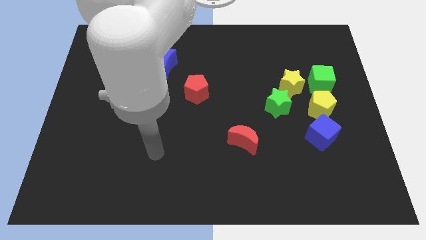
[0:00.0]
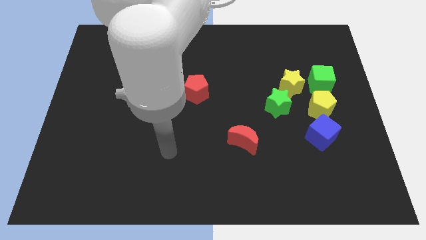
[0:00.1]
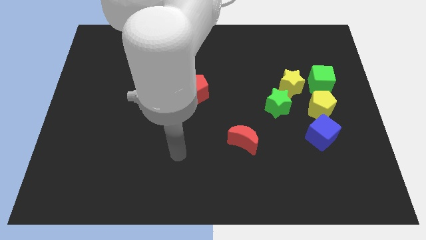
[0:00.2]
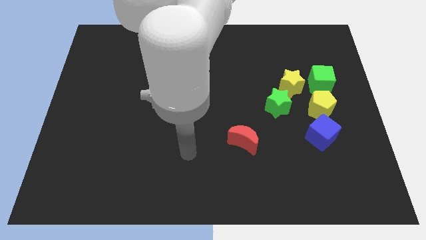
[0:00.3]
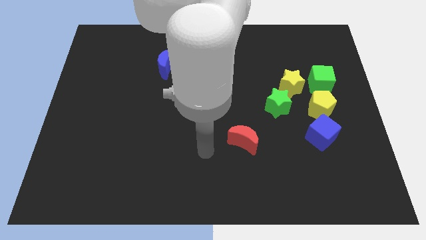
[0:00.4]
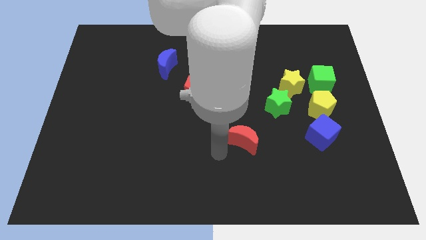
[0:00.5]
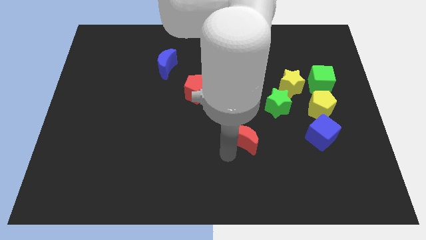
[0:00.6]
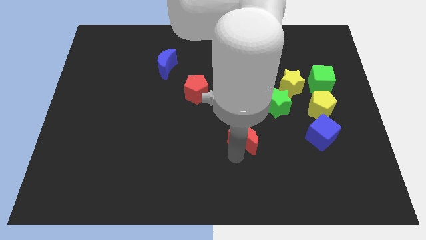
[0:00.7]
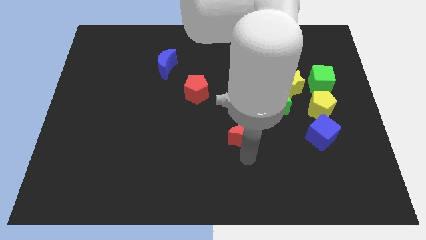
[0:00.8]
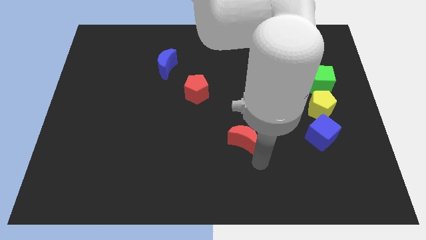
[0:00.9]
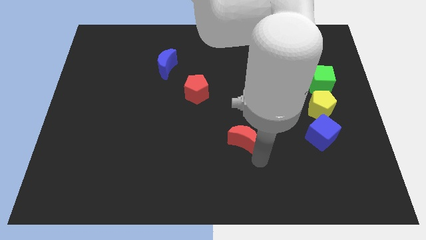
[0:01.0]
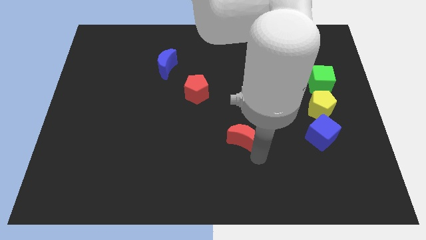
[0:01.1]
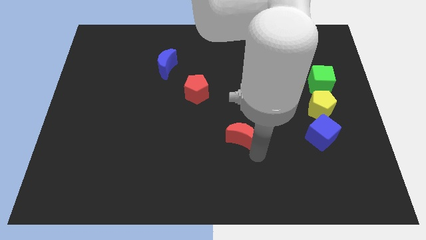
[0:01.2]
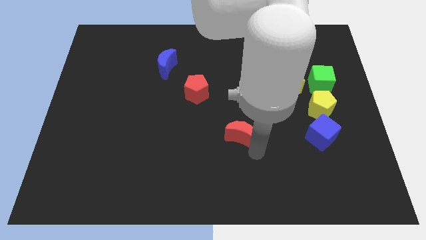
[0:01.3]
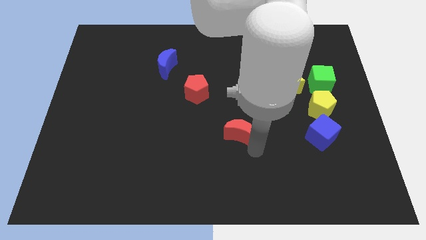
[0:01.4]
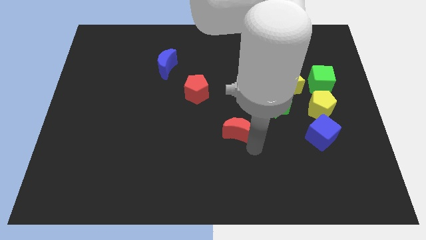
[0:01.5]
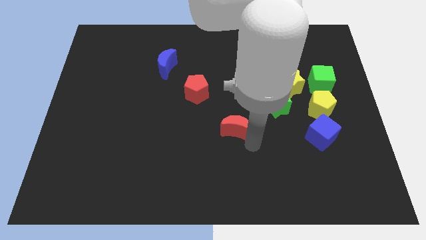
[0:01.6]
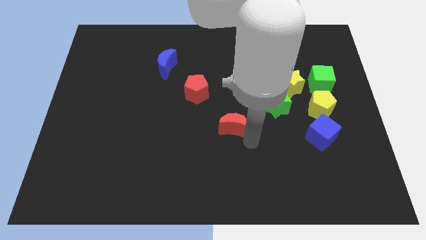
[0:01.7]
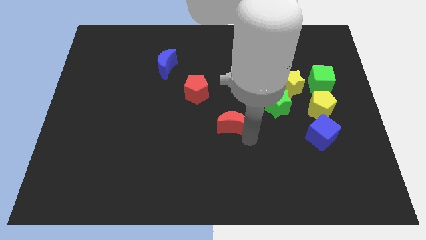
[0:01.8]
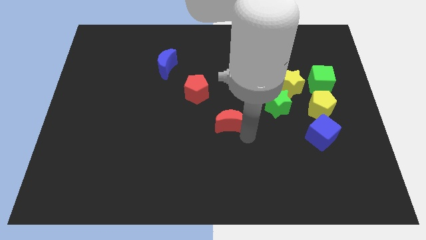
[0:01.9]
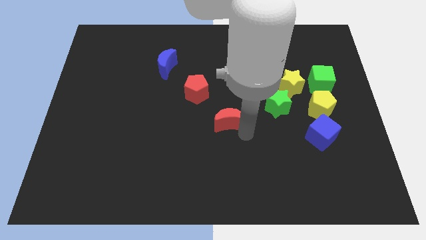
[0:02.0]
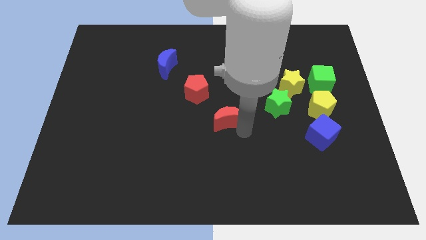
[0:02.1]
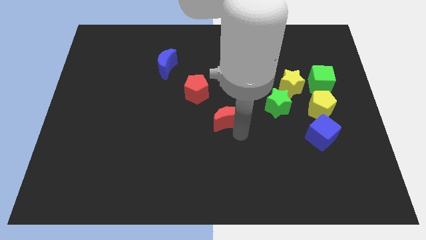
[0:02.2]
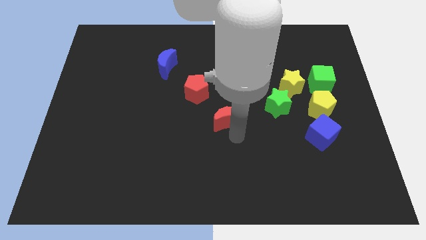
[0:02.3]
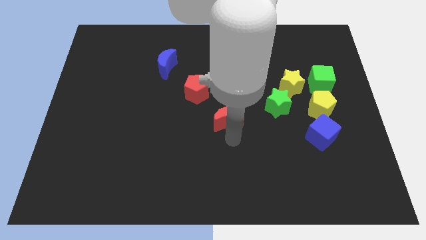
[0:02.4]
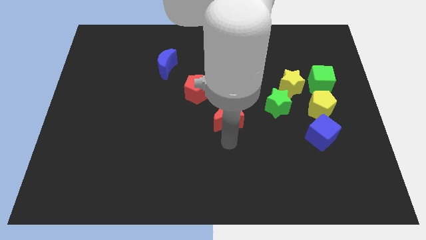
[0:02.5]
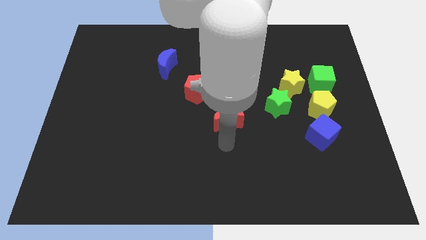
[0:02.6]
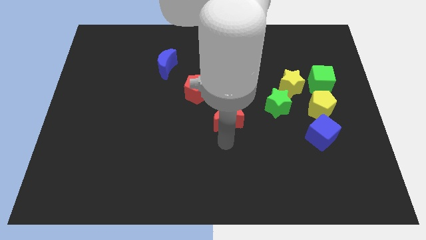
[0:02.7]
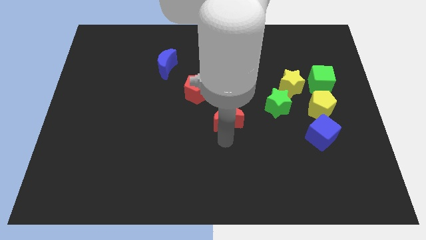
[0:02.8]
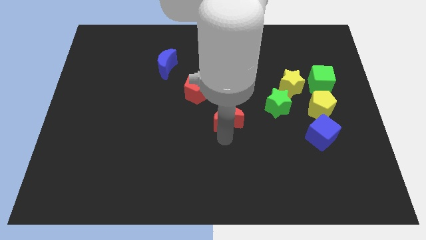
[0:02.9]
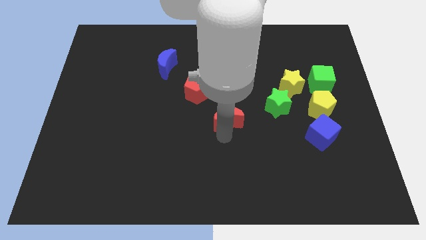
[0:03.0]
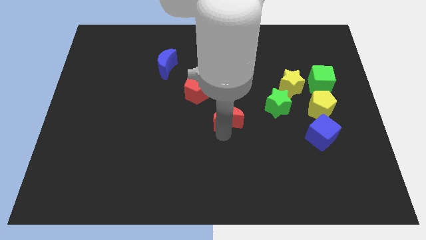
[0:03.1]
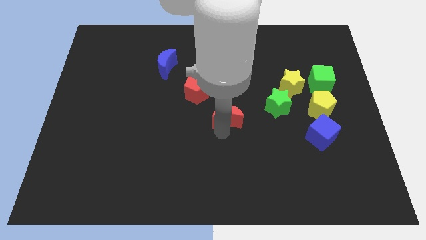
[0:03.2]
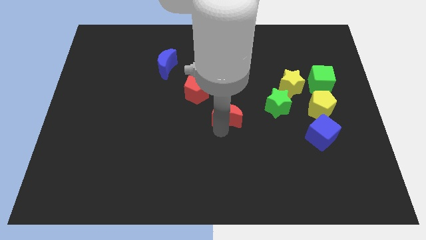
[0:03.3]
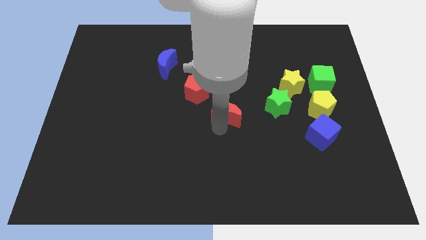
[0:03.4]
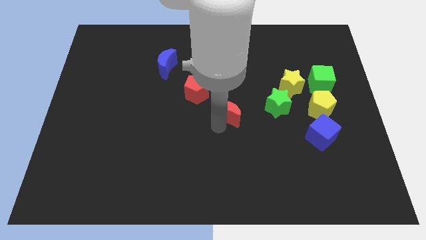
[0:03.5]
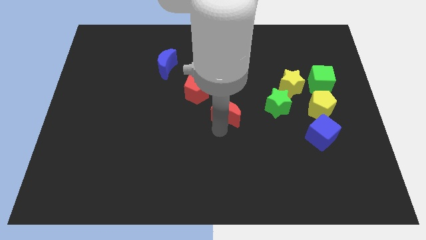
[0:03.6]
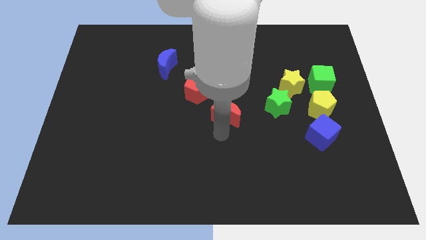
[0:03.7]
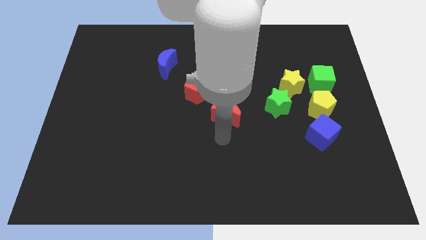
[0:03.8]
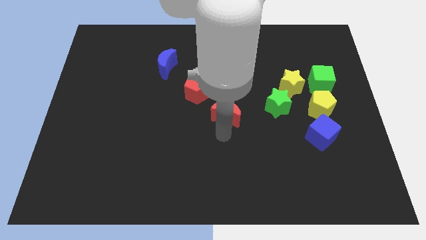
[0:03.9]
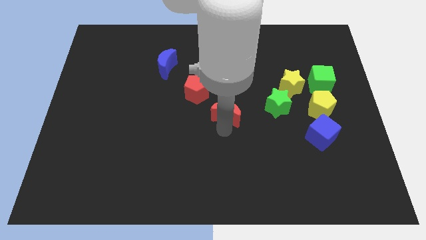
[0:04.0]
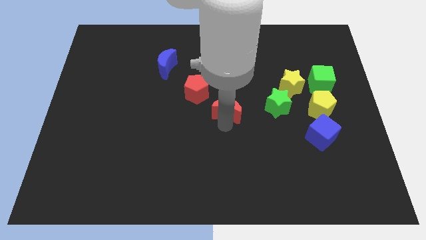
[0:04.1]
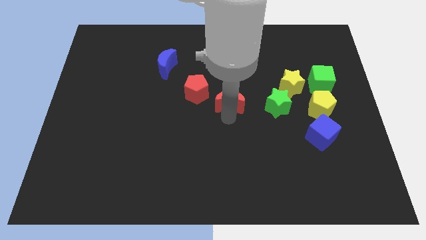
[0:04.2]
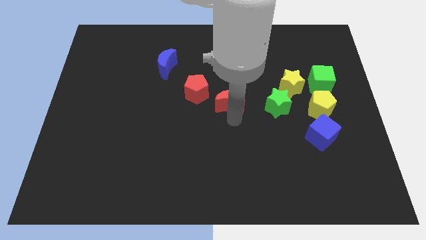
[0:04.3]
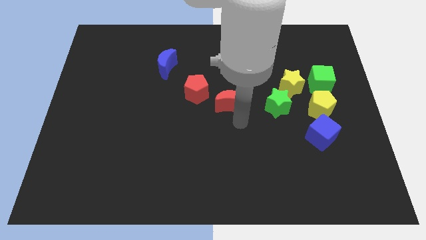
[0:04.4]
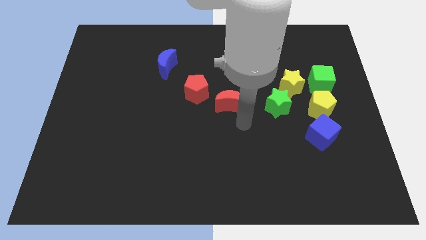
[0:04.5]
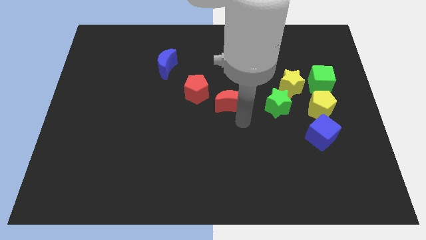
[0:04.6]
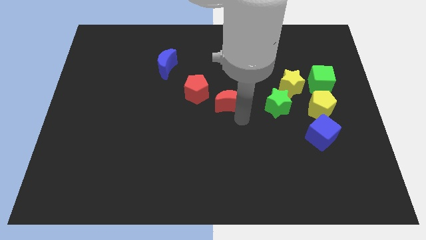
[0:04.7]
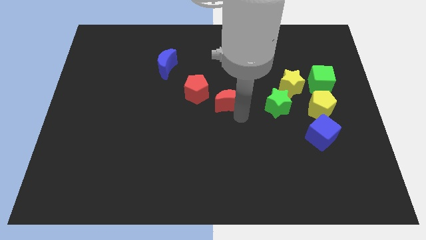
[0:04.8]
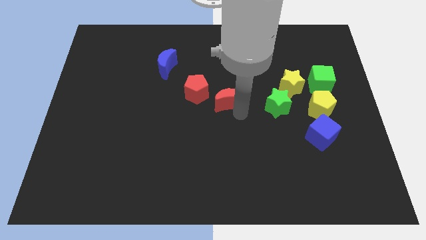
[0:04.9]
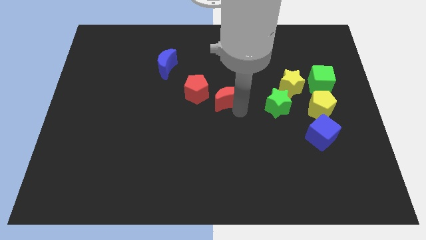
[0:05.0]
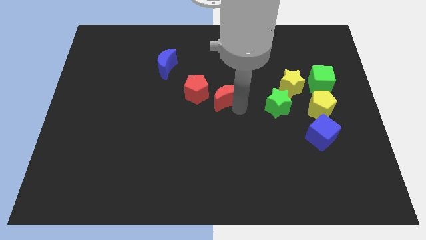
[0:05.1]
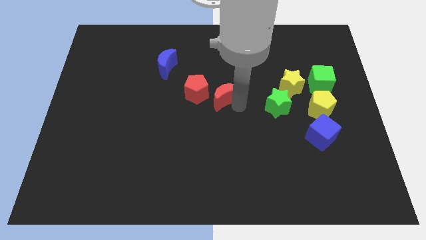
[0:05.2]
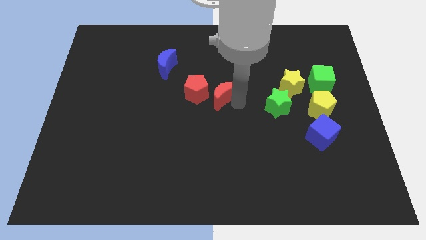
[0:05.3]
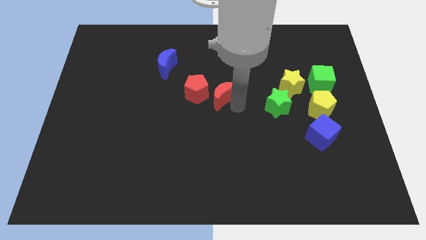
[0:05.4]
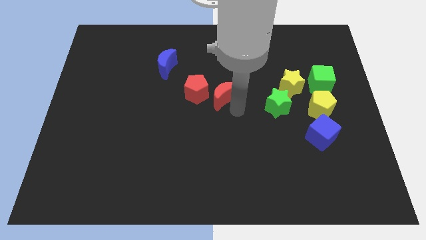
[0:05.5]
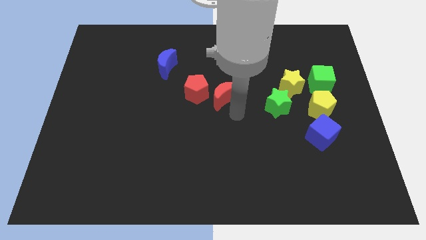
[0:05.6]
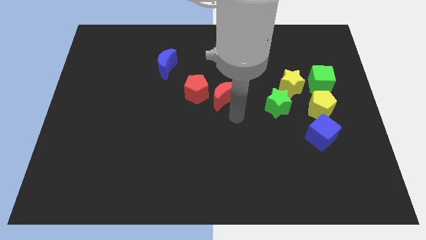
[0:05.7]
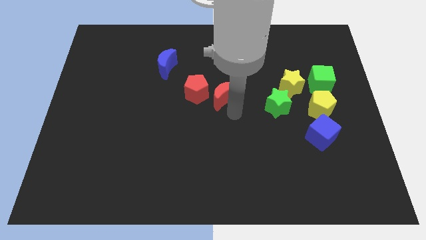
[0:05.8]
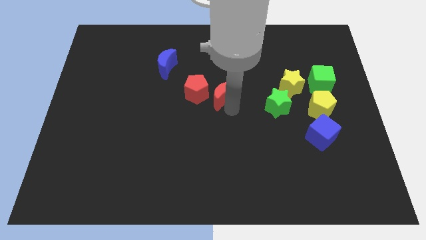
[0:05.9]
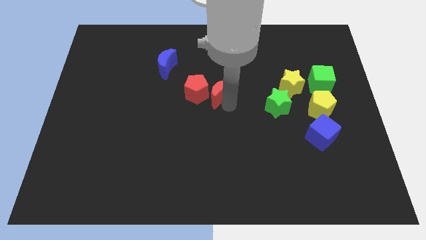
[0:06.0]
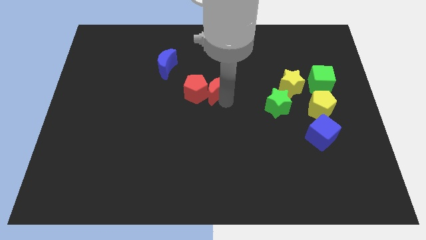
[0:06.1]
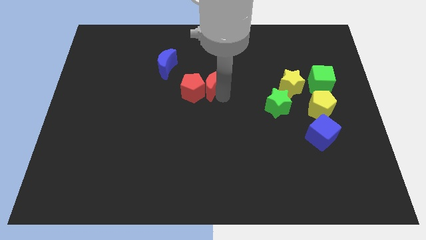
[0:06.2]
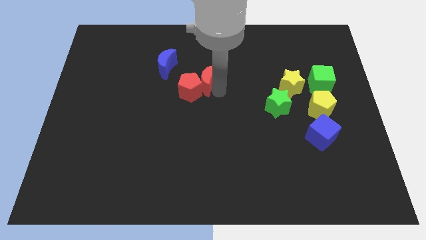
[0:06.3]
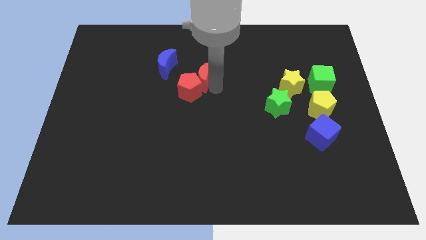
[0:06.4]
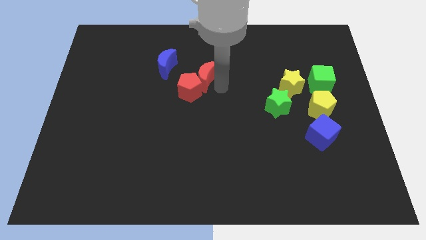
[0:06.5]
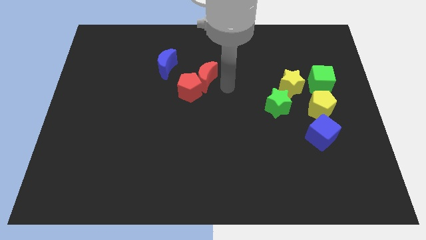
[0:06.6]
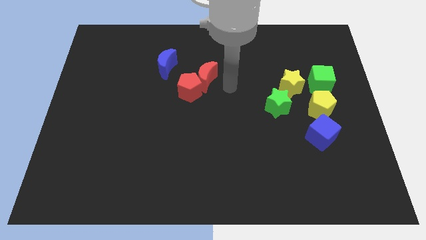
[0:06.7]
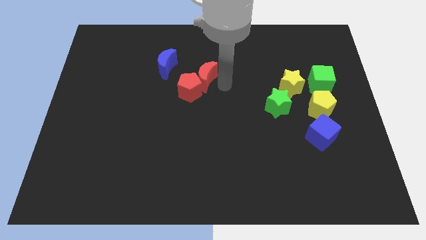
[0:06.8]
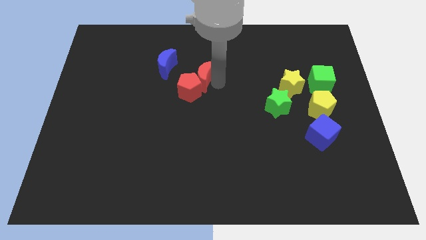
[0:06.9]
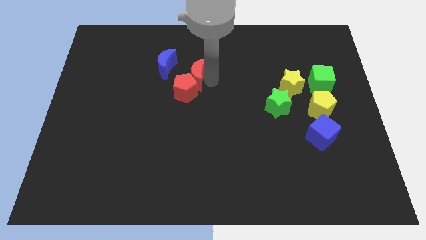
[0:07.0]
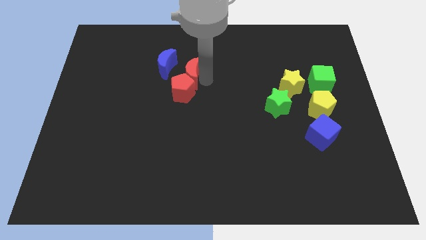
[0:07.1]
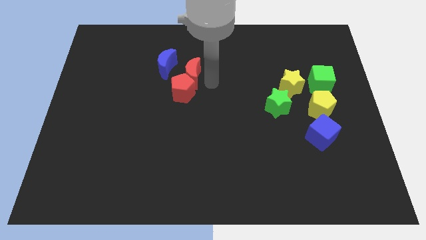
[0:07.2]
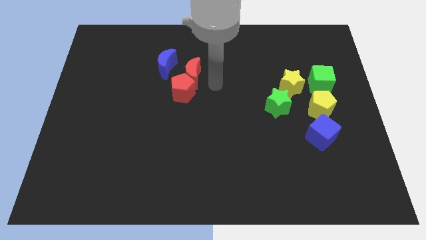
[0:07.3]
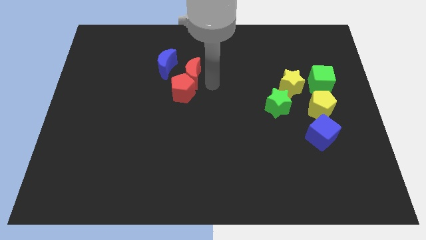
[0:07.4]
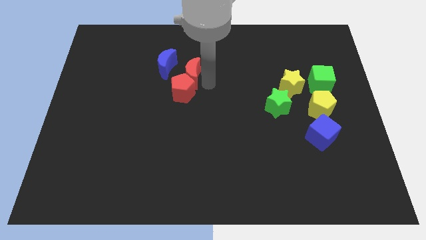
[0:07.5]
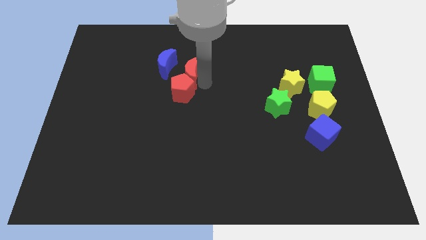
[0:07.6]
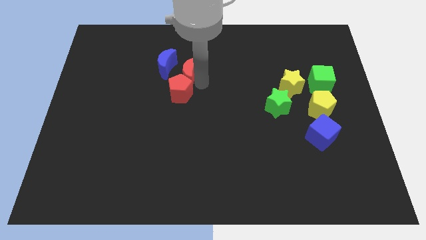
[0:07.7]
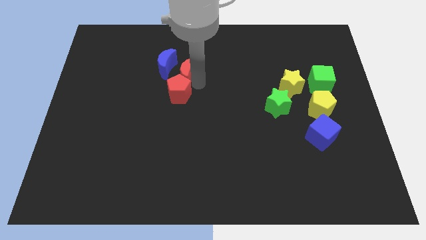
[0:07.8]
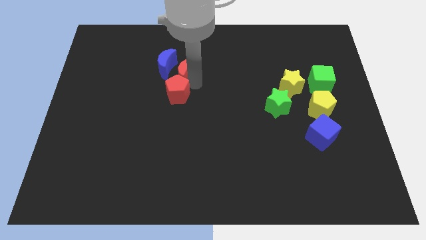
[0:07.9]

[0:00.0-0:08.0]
put the red moon next to the blue moon

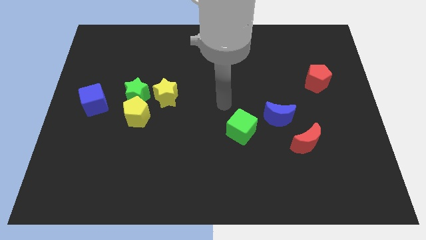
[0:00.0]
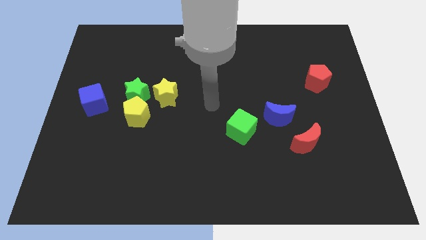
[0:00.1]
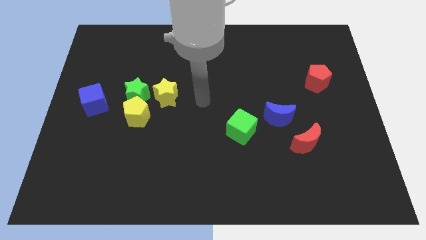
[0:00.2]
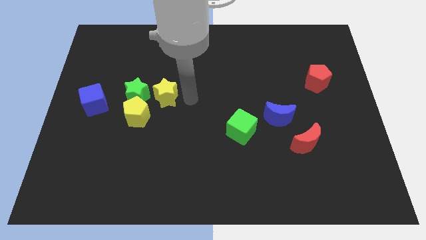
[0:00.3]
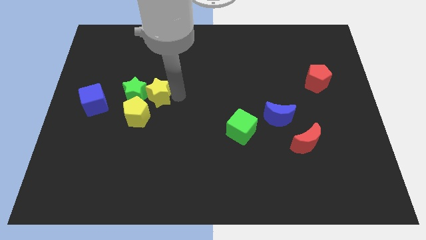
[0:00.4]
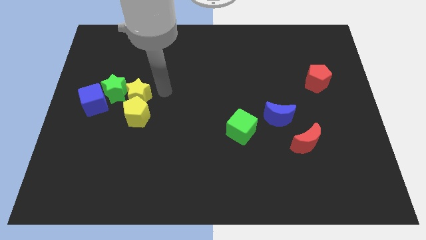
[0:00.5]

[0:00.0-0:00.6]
push the green star close to the blue cube
